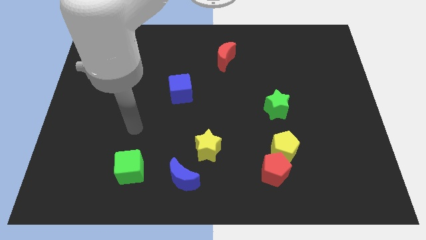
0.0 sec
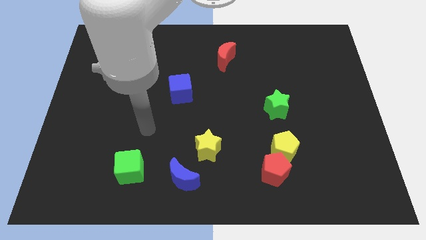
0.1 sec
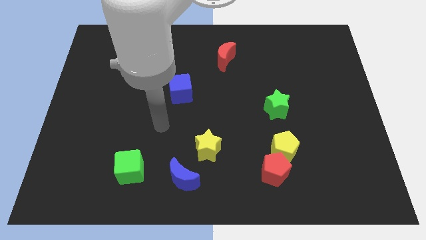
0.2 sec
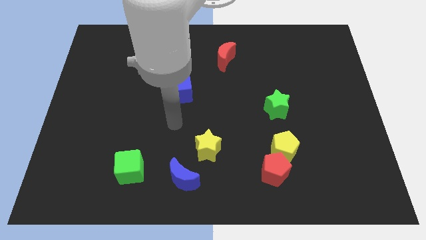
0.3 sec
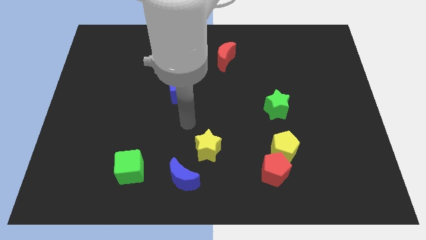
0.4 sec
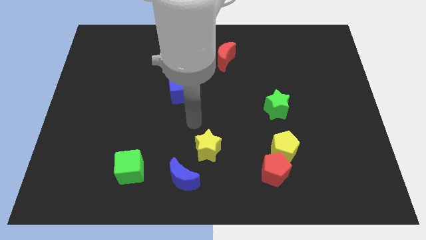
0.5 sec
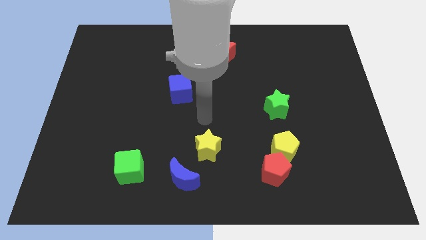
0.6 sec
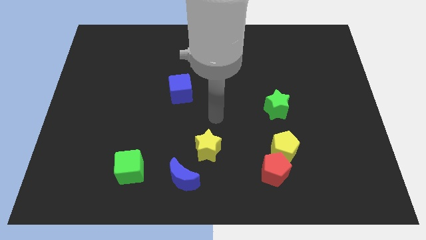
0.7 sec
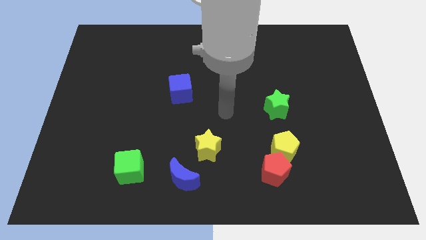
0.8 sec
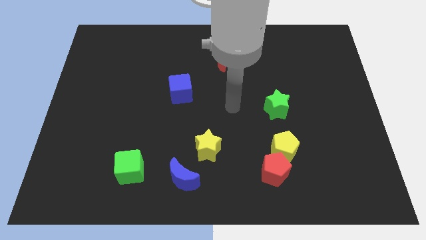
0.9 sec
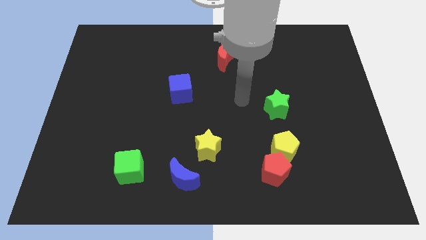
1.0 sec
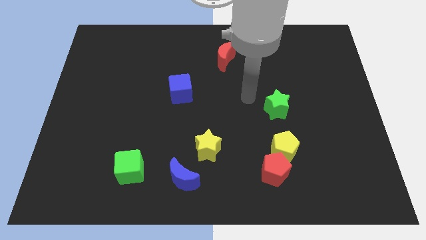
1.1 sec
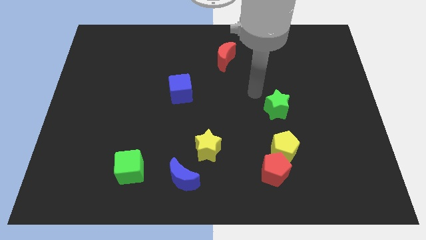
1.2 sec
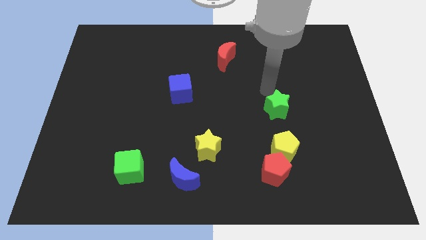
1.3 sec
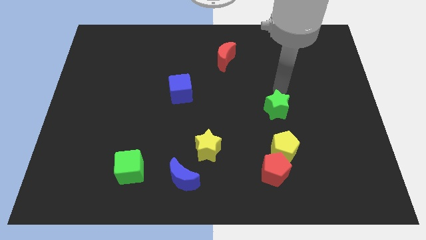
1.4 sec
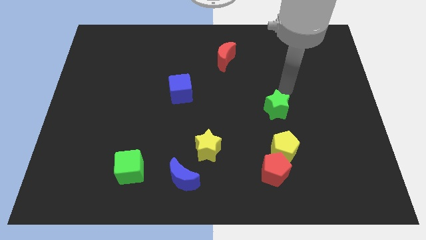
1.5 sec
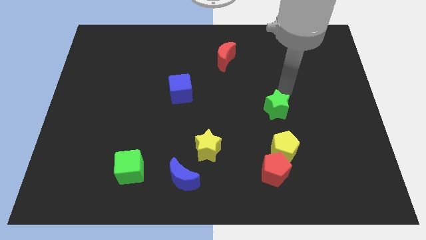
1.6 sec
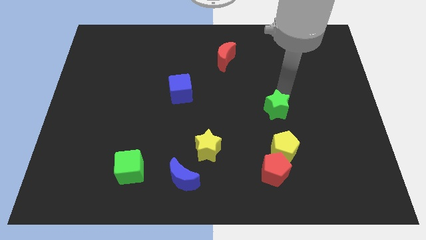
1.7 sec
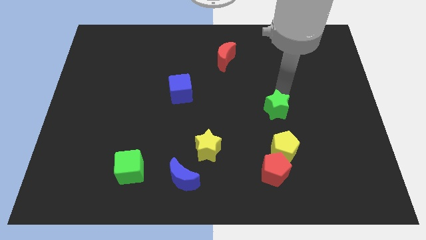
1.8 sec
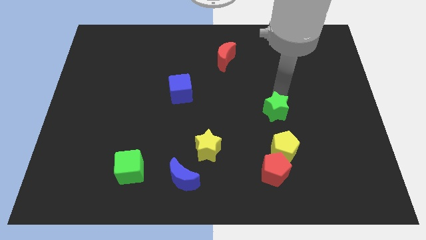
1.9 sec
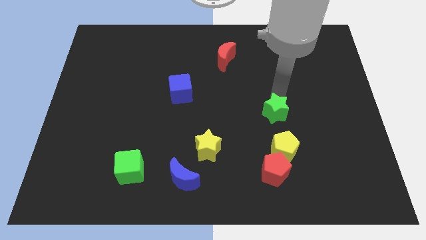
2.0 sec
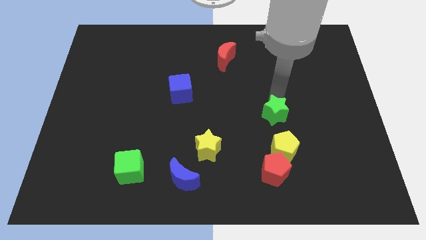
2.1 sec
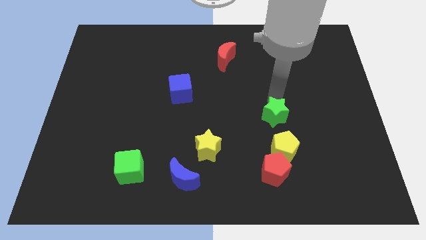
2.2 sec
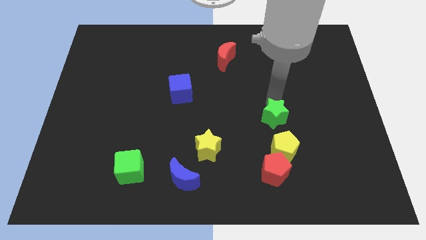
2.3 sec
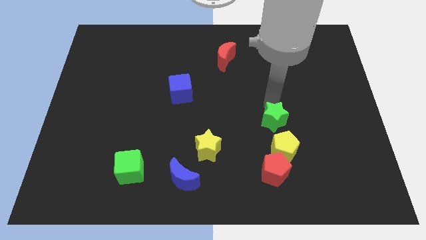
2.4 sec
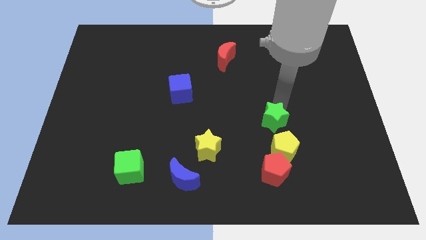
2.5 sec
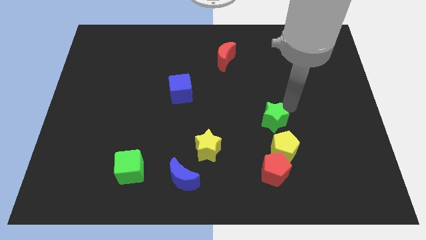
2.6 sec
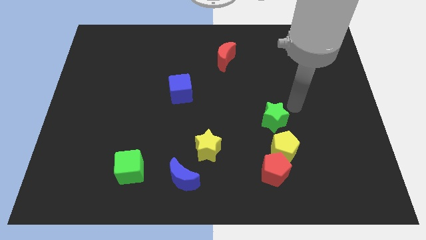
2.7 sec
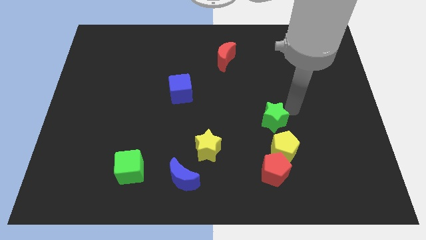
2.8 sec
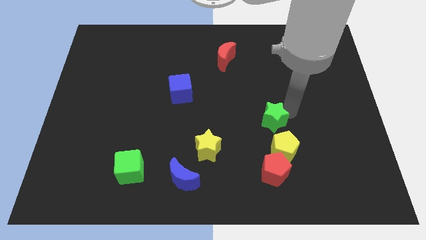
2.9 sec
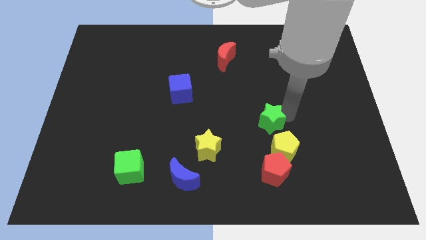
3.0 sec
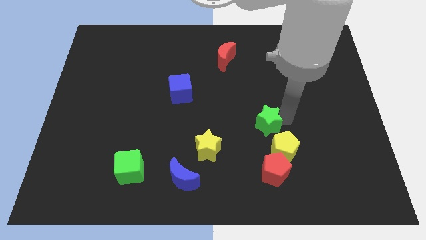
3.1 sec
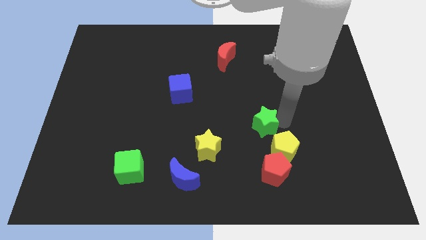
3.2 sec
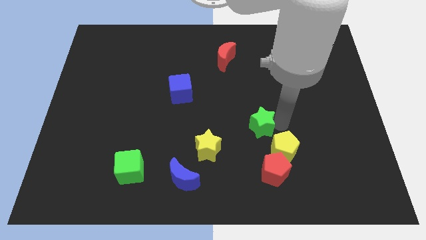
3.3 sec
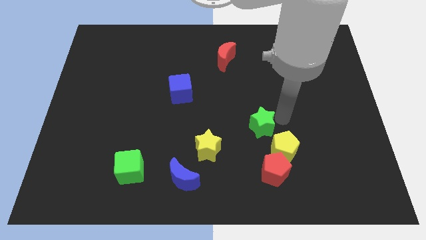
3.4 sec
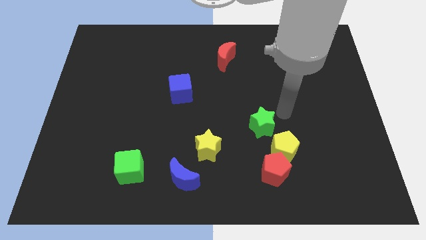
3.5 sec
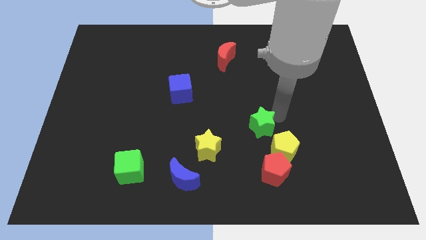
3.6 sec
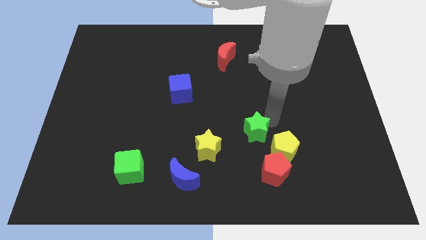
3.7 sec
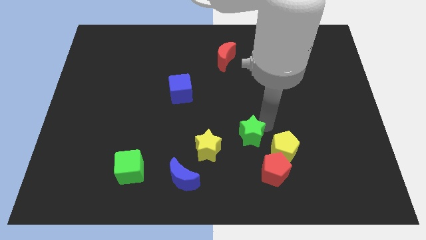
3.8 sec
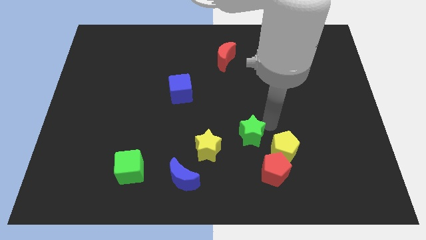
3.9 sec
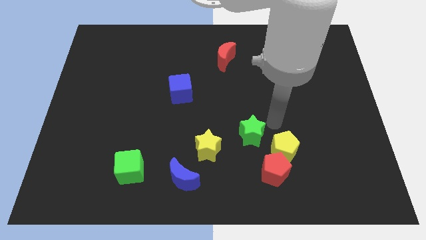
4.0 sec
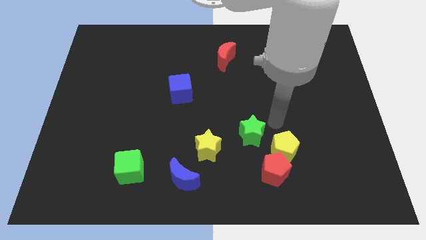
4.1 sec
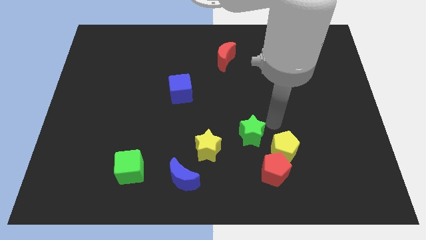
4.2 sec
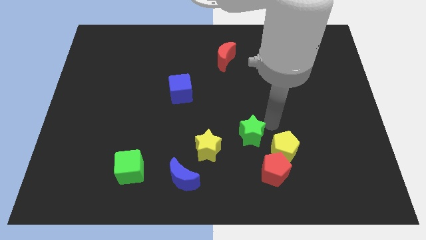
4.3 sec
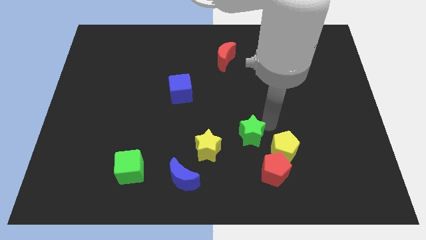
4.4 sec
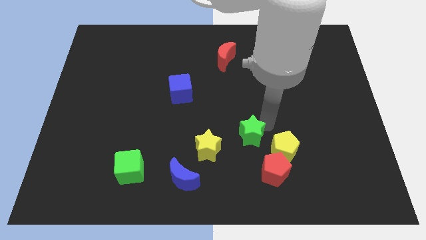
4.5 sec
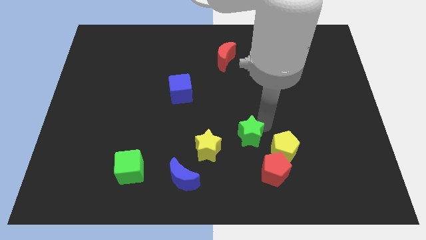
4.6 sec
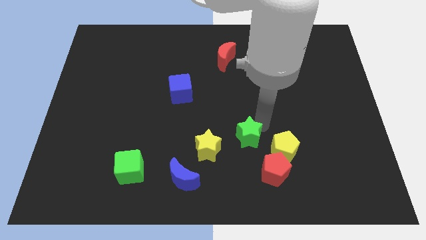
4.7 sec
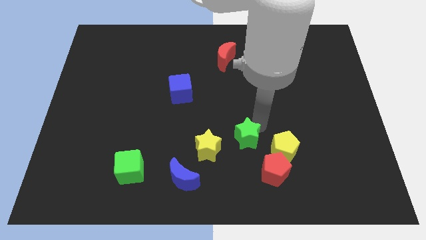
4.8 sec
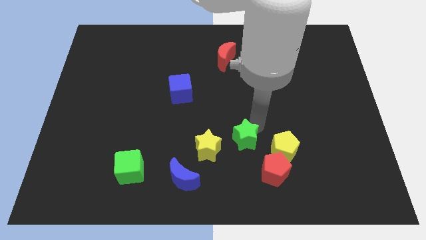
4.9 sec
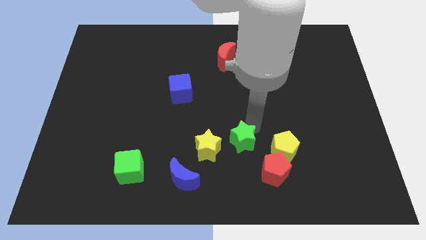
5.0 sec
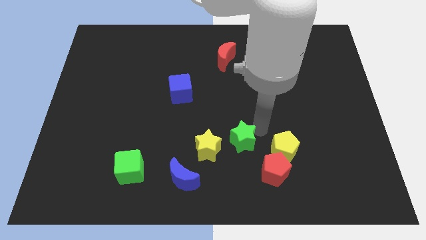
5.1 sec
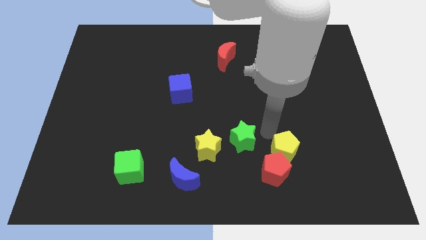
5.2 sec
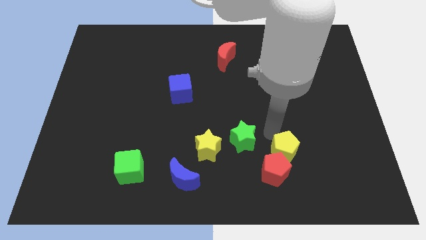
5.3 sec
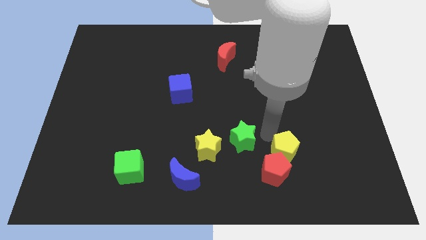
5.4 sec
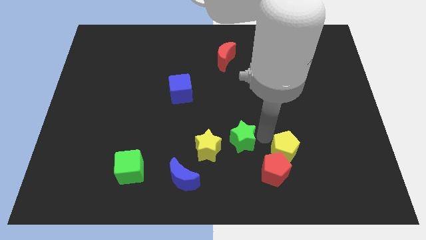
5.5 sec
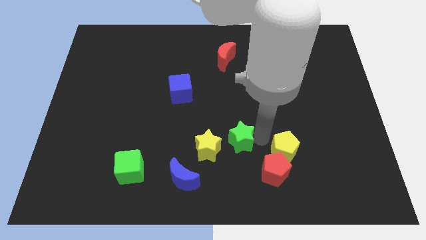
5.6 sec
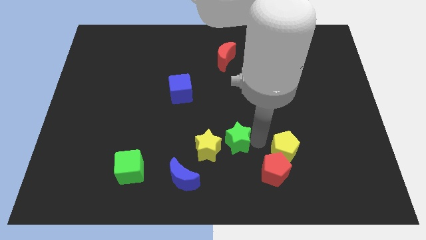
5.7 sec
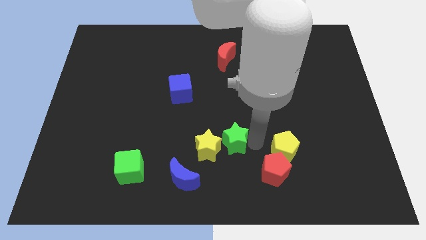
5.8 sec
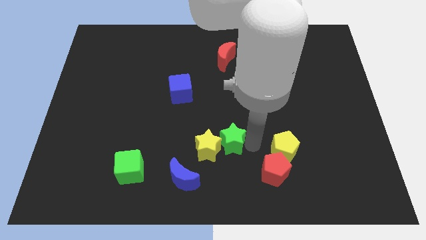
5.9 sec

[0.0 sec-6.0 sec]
slide the green star to the yellow star
